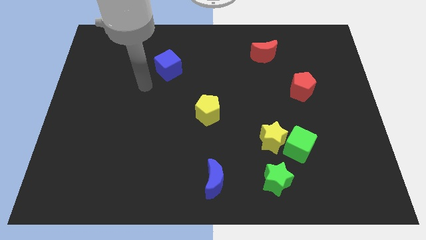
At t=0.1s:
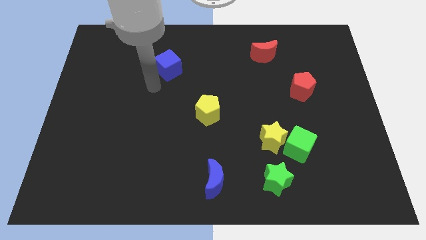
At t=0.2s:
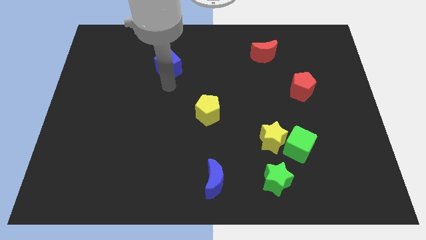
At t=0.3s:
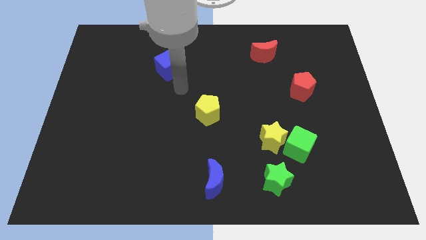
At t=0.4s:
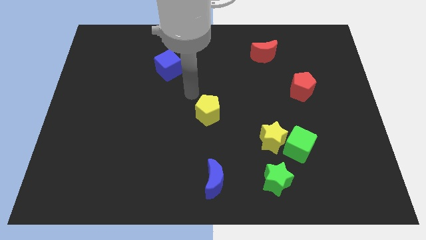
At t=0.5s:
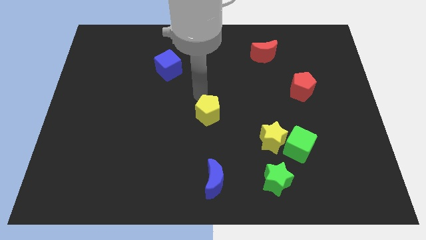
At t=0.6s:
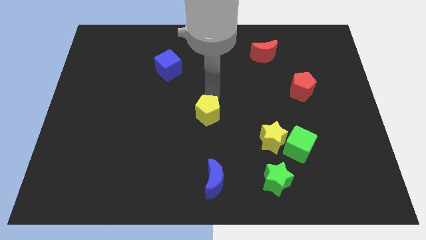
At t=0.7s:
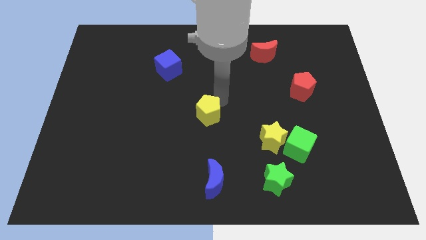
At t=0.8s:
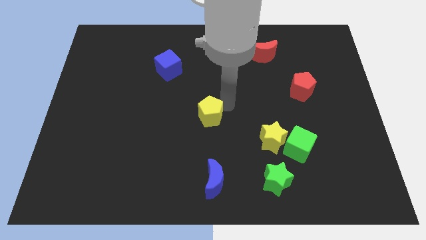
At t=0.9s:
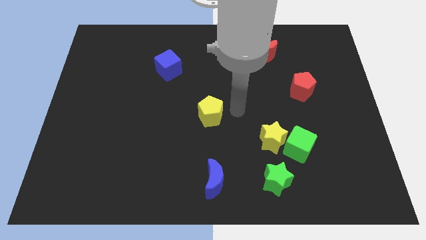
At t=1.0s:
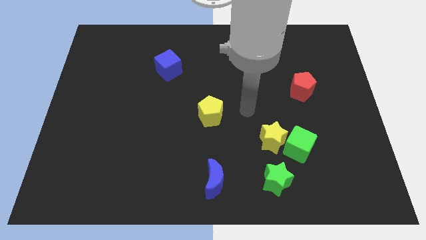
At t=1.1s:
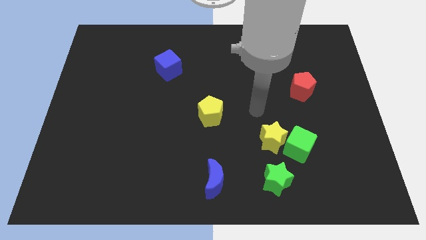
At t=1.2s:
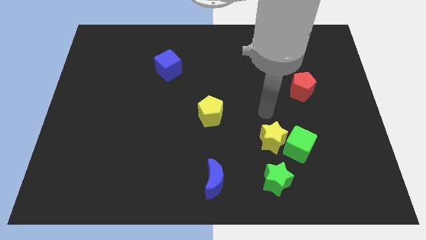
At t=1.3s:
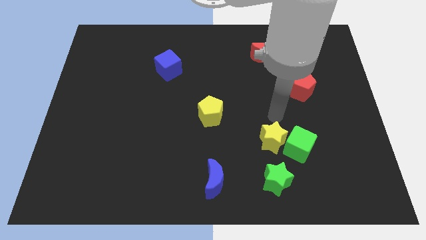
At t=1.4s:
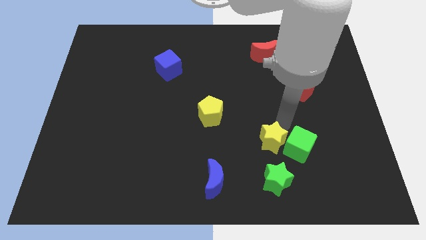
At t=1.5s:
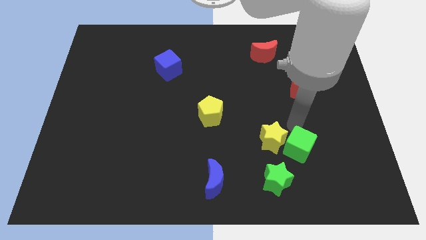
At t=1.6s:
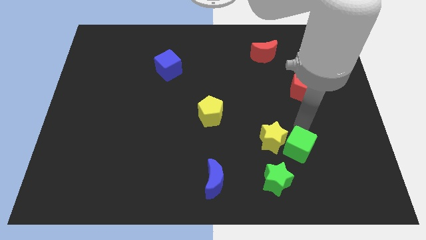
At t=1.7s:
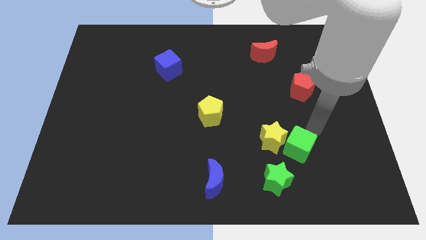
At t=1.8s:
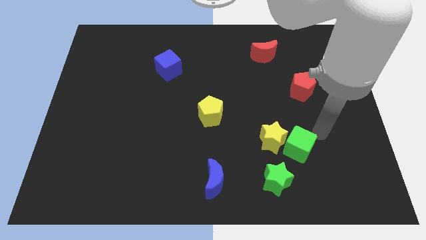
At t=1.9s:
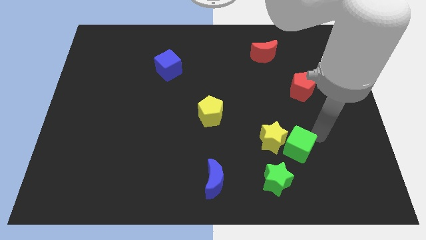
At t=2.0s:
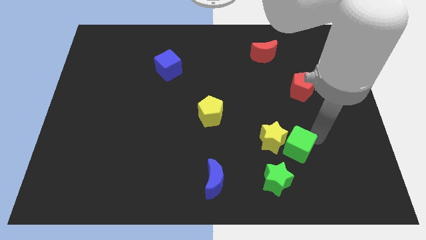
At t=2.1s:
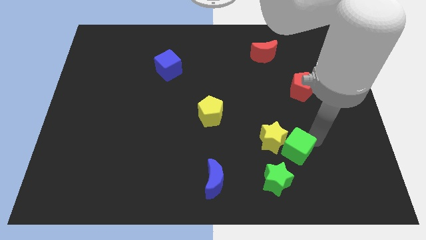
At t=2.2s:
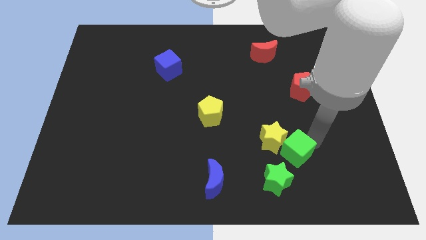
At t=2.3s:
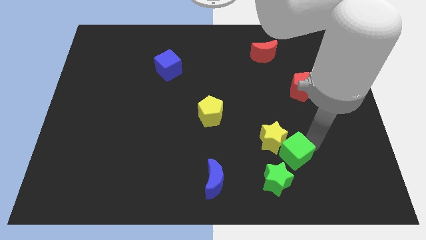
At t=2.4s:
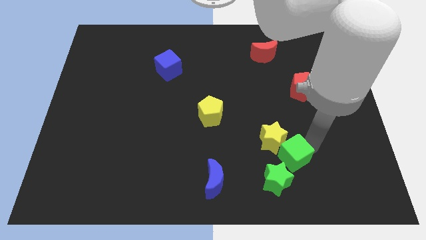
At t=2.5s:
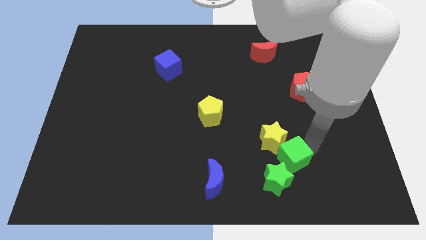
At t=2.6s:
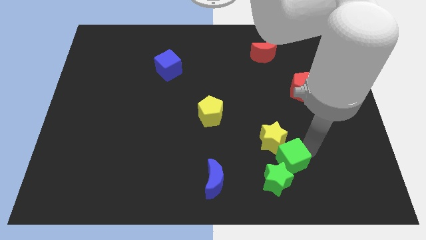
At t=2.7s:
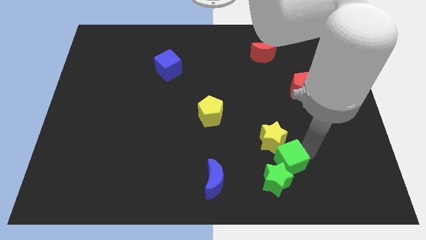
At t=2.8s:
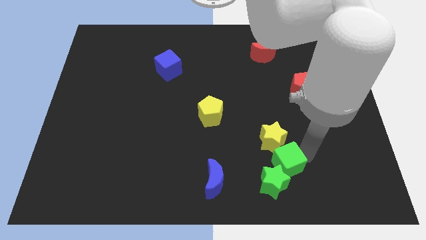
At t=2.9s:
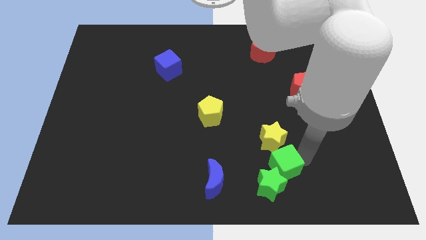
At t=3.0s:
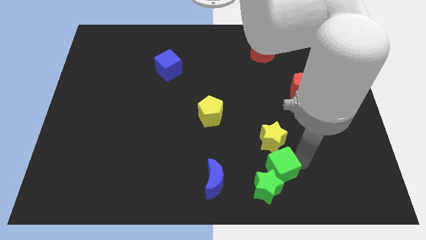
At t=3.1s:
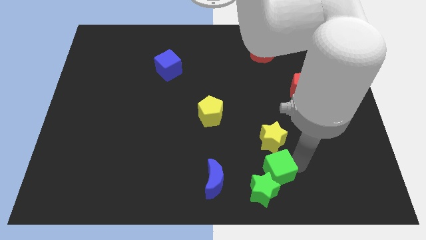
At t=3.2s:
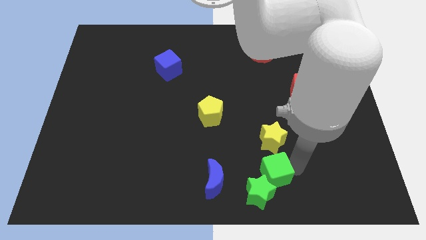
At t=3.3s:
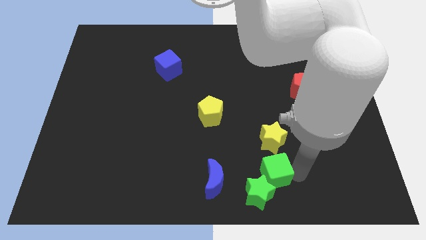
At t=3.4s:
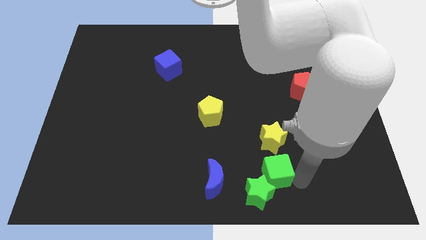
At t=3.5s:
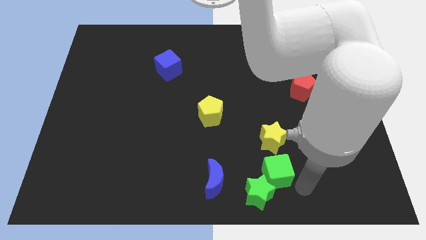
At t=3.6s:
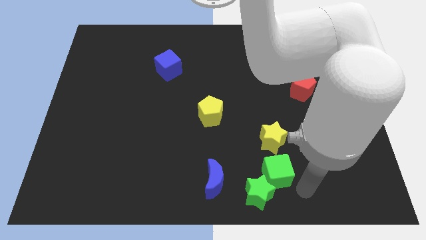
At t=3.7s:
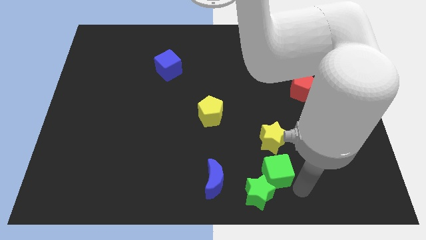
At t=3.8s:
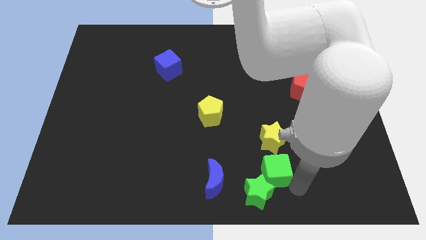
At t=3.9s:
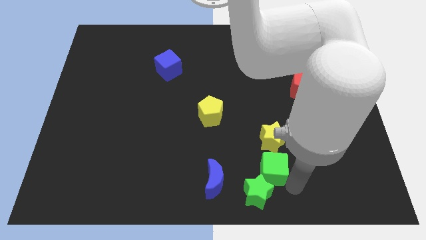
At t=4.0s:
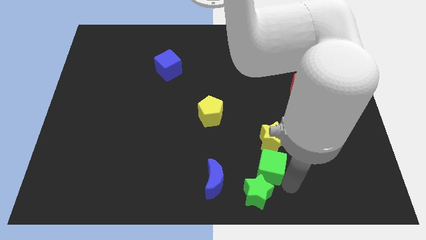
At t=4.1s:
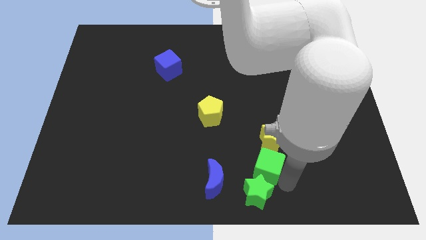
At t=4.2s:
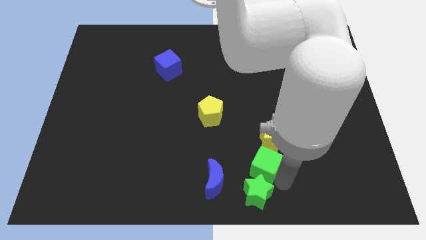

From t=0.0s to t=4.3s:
slightly move the green cube left

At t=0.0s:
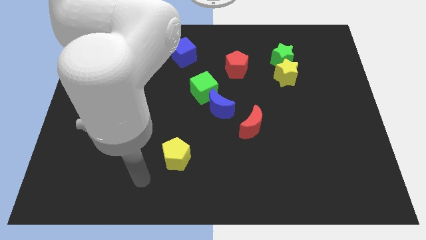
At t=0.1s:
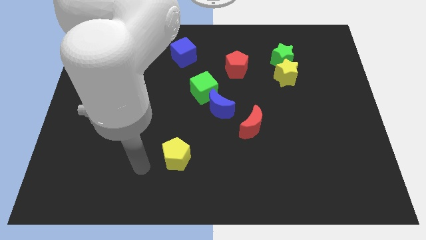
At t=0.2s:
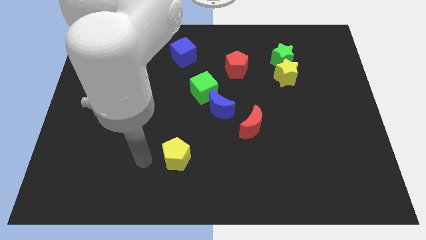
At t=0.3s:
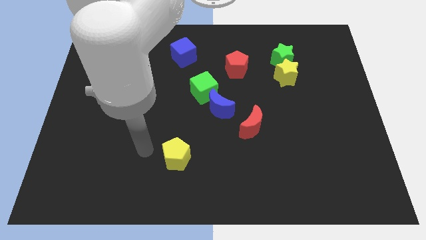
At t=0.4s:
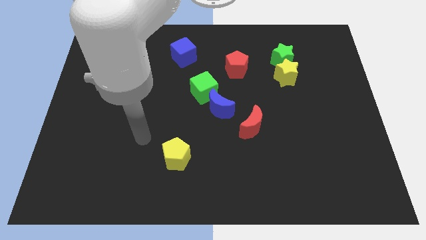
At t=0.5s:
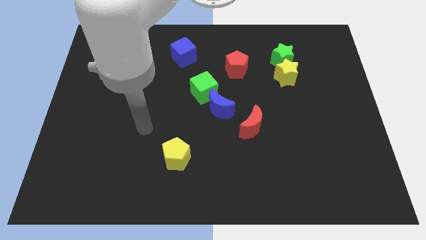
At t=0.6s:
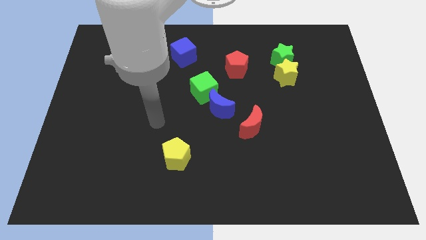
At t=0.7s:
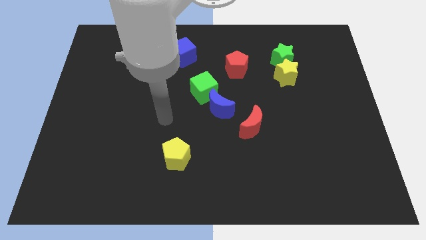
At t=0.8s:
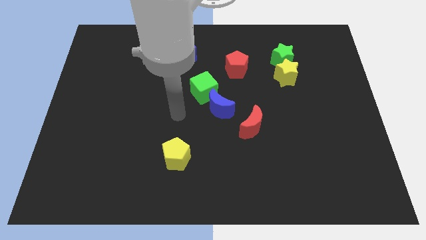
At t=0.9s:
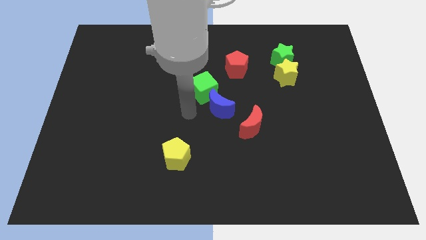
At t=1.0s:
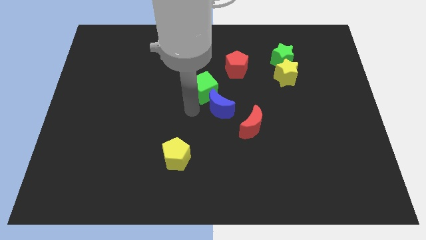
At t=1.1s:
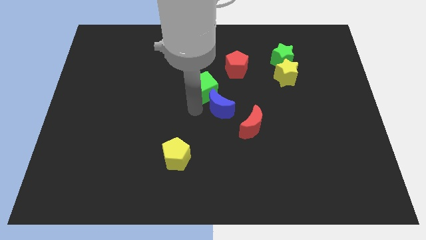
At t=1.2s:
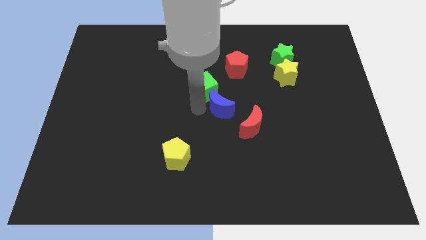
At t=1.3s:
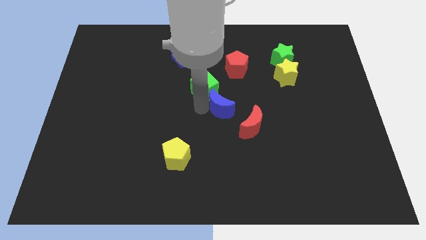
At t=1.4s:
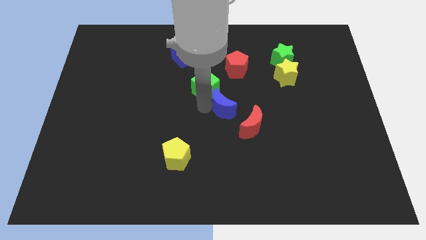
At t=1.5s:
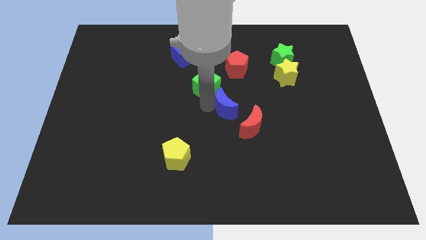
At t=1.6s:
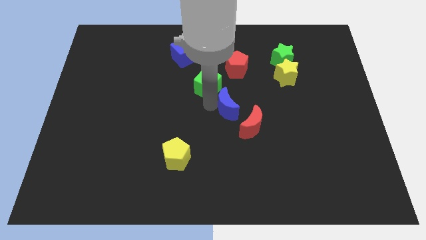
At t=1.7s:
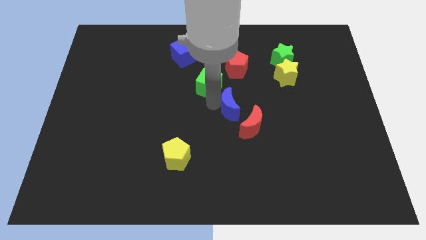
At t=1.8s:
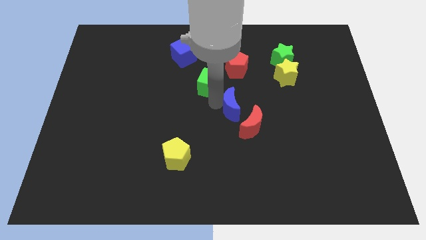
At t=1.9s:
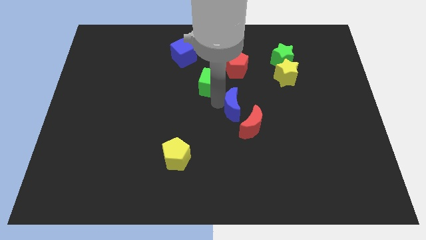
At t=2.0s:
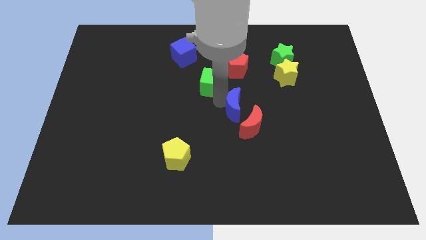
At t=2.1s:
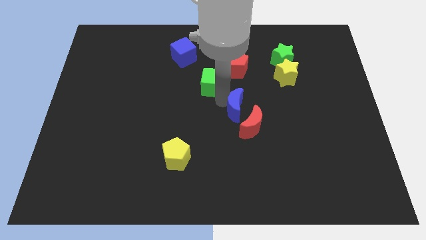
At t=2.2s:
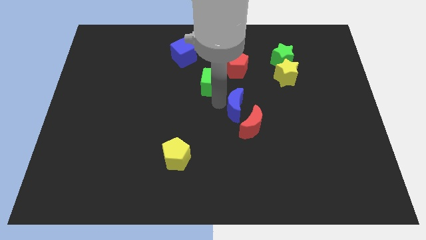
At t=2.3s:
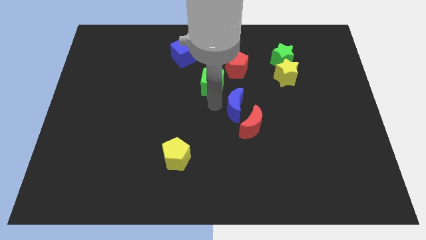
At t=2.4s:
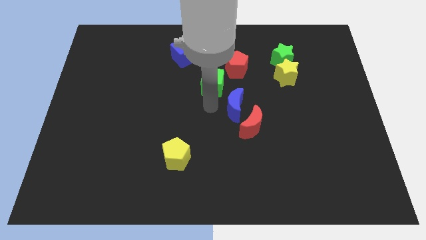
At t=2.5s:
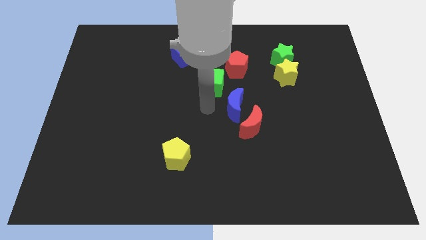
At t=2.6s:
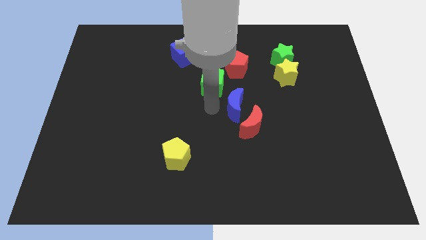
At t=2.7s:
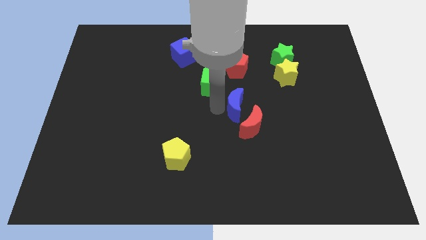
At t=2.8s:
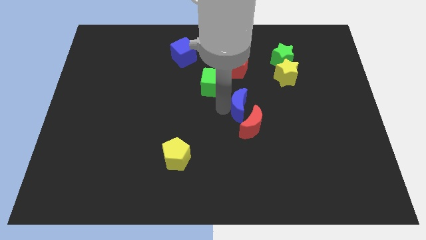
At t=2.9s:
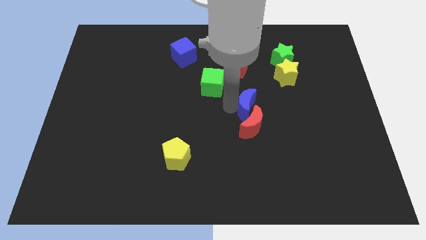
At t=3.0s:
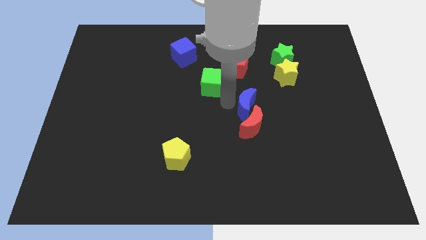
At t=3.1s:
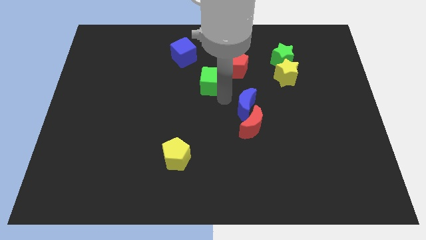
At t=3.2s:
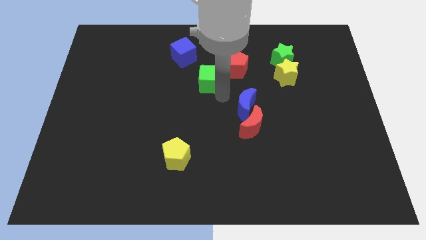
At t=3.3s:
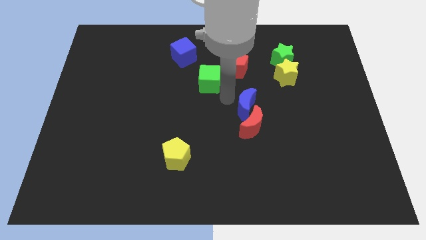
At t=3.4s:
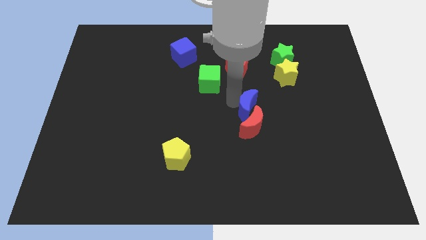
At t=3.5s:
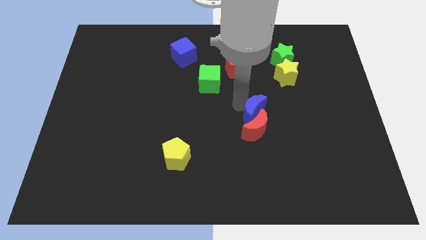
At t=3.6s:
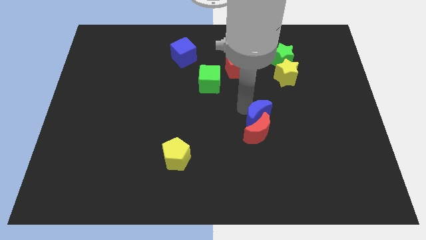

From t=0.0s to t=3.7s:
slide the blue moon downwards and then right a little
